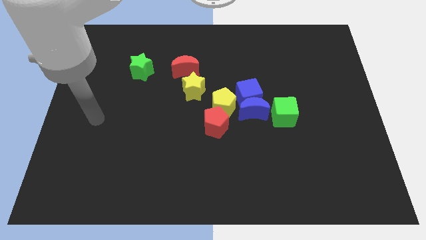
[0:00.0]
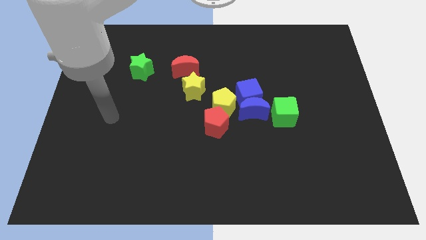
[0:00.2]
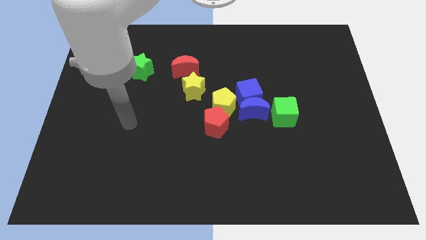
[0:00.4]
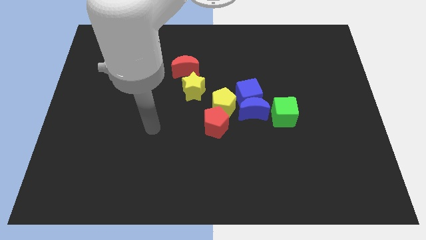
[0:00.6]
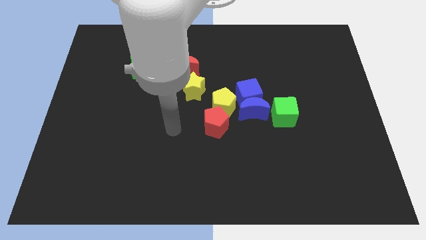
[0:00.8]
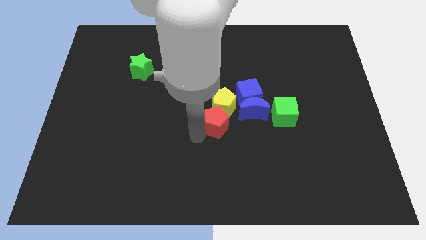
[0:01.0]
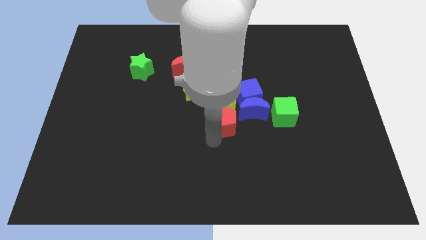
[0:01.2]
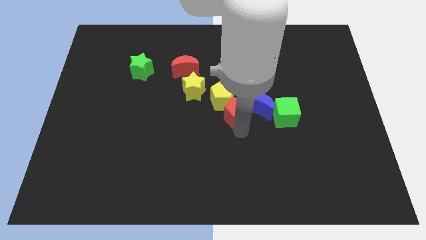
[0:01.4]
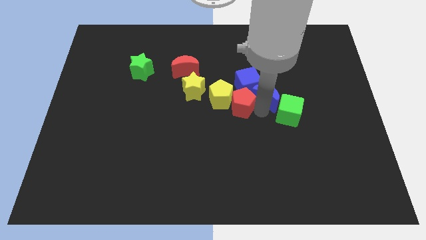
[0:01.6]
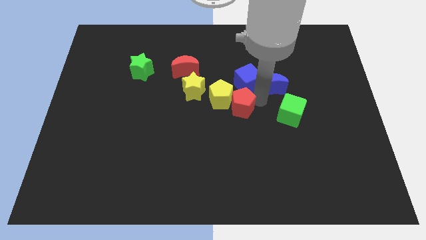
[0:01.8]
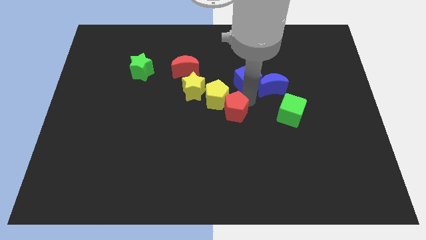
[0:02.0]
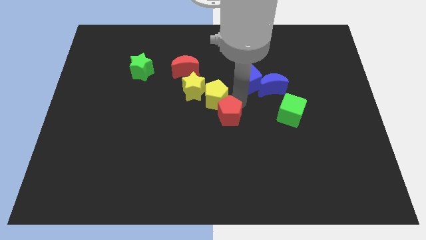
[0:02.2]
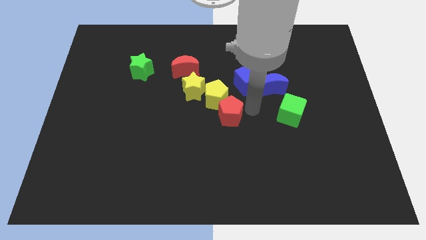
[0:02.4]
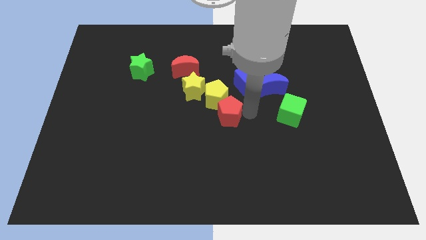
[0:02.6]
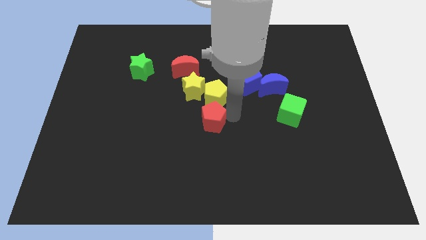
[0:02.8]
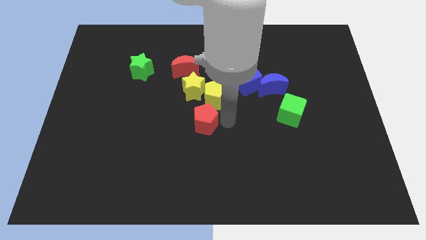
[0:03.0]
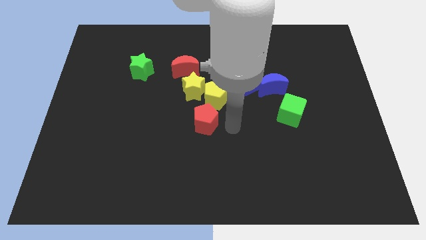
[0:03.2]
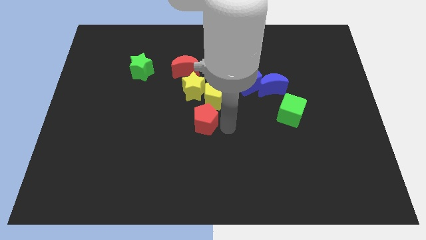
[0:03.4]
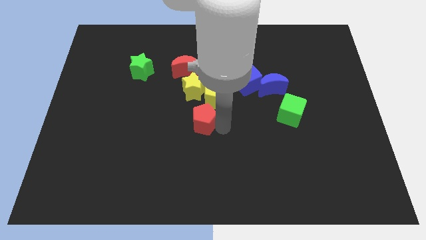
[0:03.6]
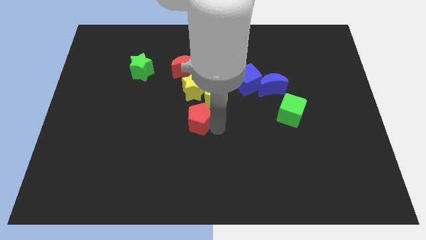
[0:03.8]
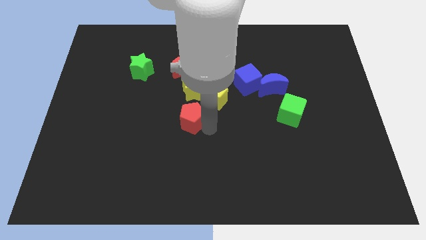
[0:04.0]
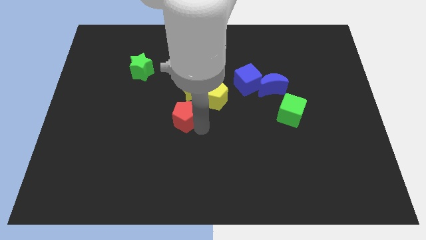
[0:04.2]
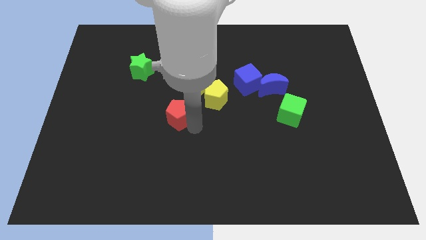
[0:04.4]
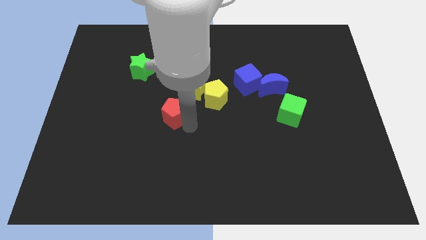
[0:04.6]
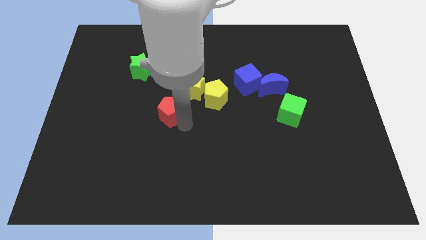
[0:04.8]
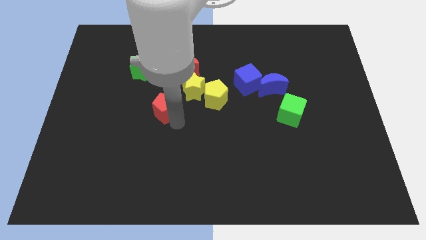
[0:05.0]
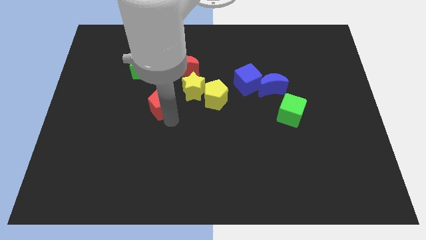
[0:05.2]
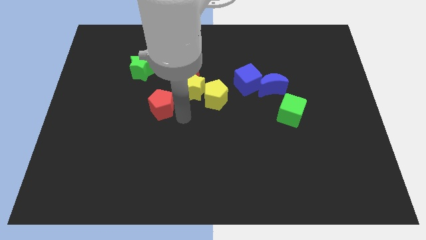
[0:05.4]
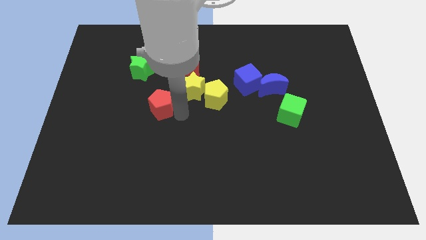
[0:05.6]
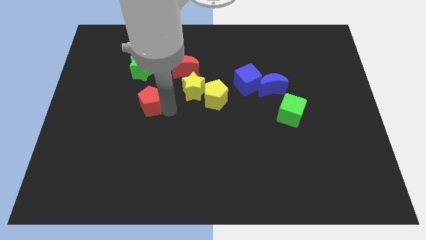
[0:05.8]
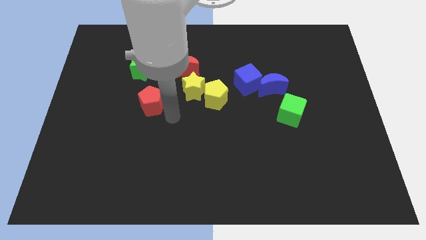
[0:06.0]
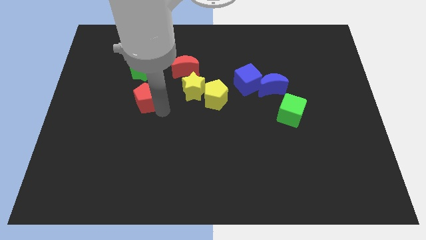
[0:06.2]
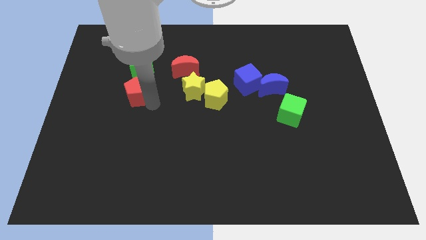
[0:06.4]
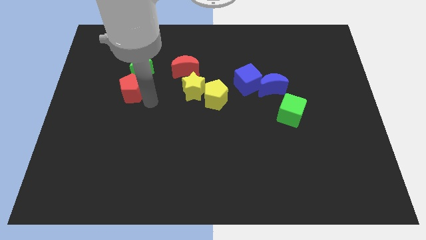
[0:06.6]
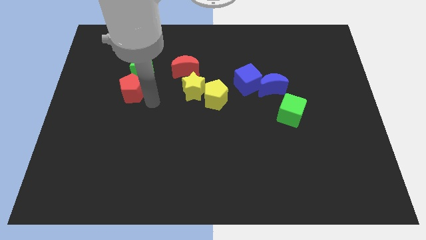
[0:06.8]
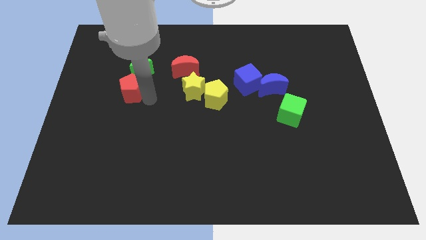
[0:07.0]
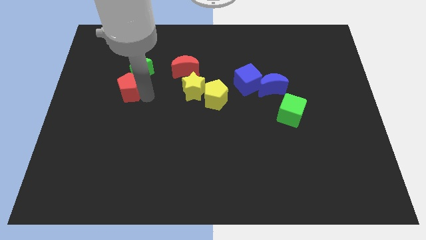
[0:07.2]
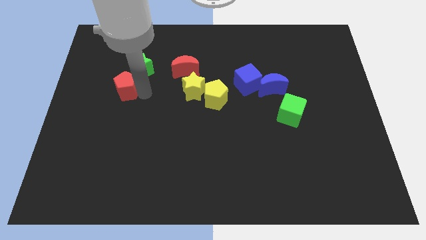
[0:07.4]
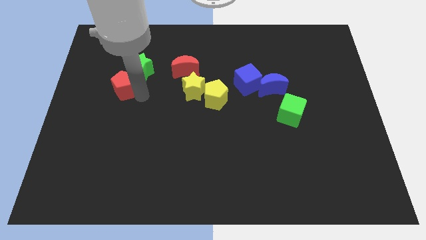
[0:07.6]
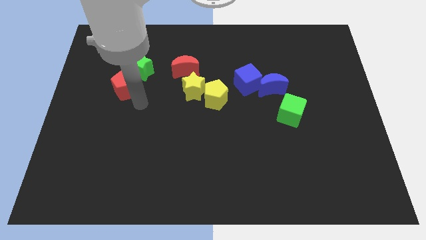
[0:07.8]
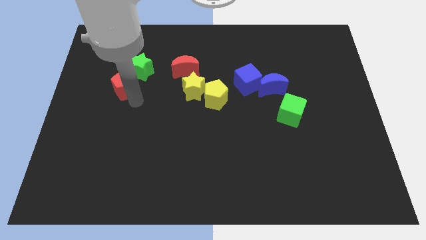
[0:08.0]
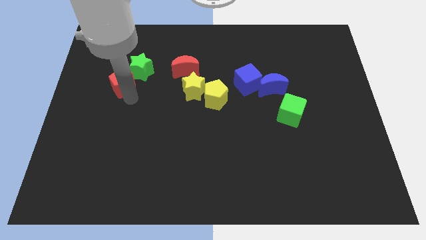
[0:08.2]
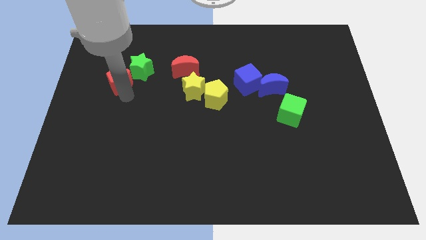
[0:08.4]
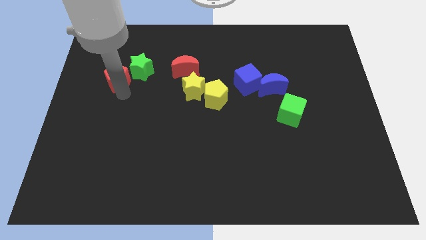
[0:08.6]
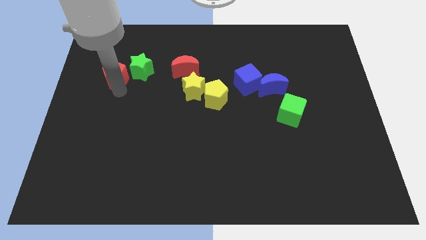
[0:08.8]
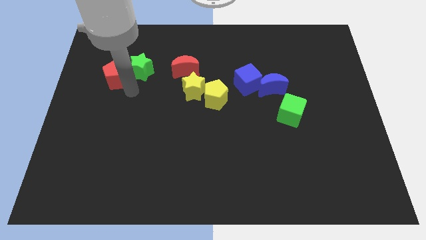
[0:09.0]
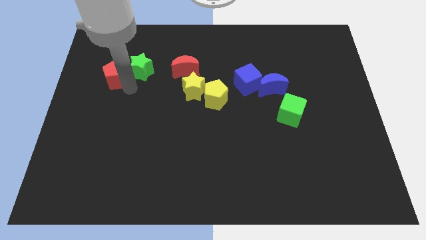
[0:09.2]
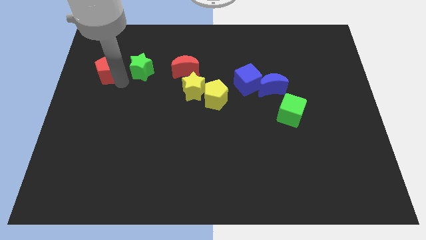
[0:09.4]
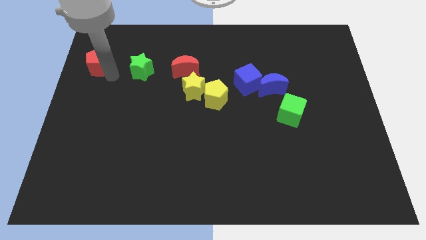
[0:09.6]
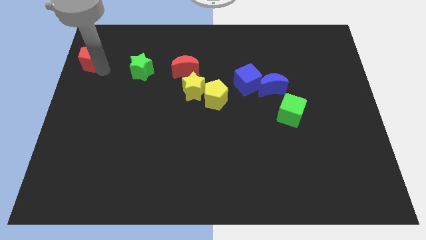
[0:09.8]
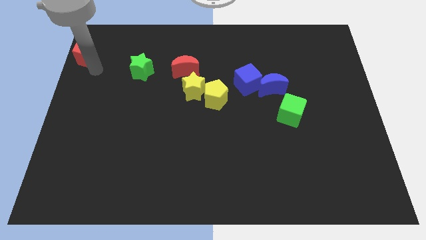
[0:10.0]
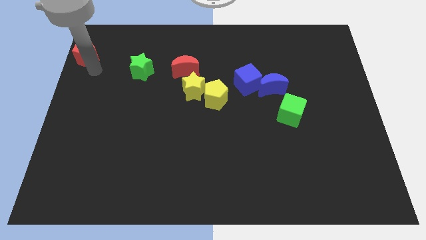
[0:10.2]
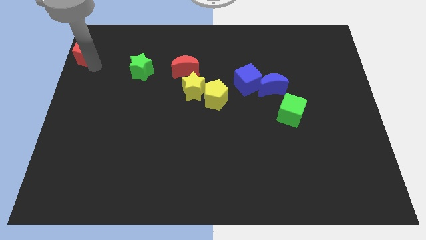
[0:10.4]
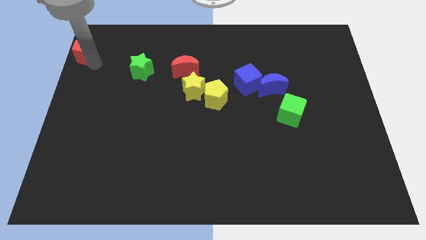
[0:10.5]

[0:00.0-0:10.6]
slide the red pentagon to the upper left corner
